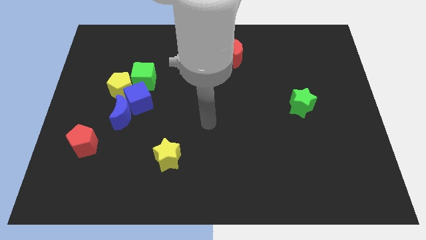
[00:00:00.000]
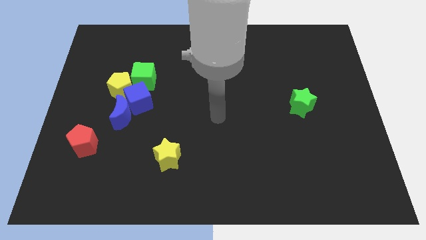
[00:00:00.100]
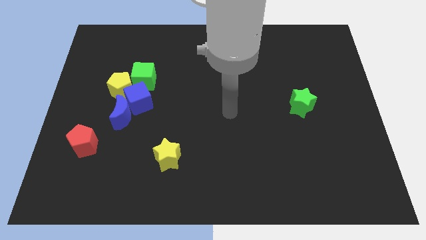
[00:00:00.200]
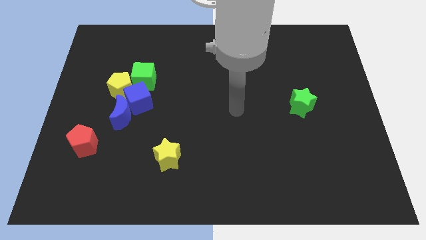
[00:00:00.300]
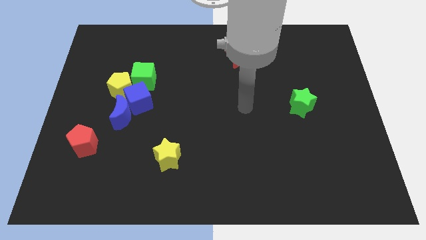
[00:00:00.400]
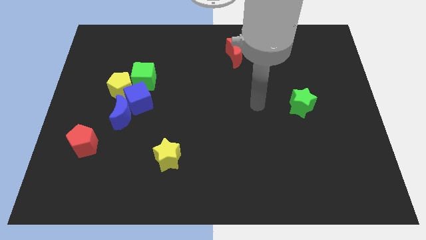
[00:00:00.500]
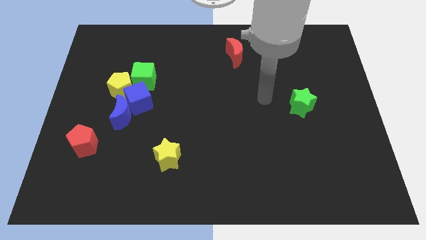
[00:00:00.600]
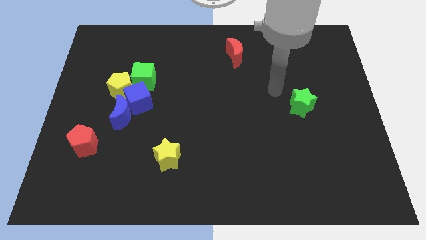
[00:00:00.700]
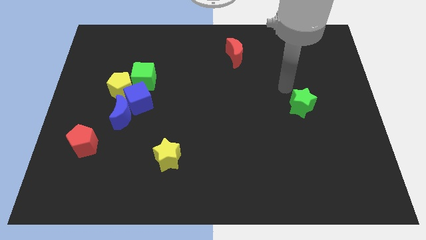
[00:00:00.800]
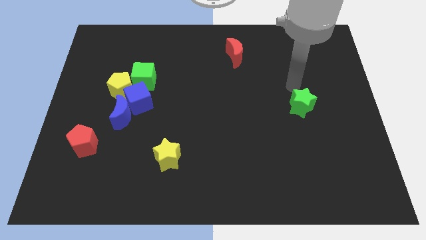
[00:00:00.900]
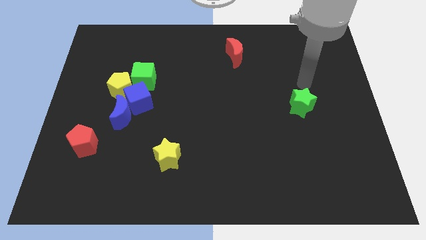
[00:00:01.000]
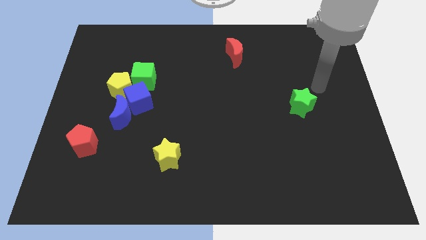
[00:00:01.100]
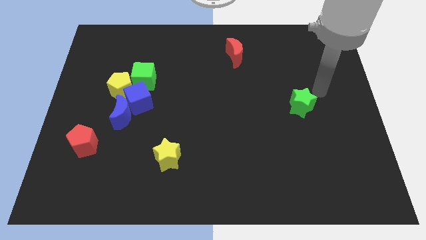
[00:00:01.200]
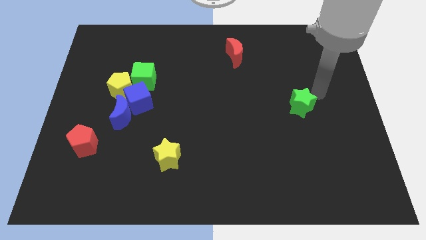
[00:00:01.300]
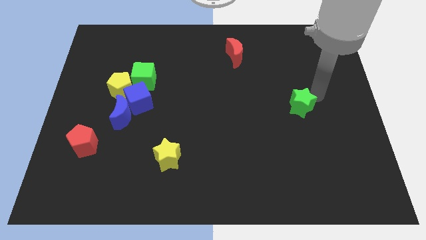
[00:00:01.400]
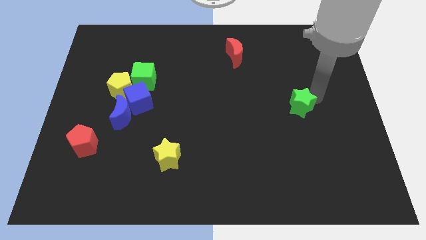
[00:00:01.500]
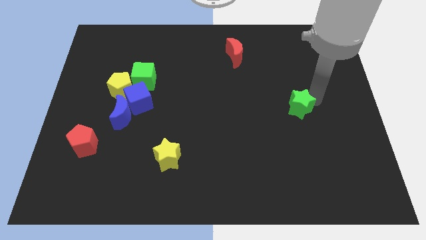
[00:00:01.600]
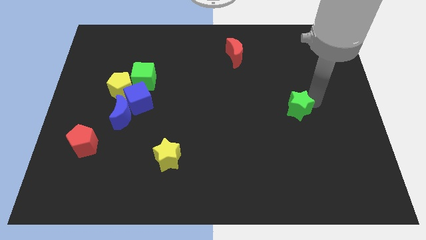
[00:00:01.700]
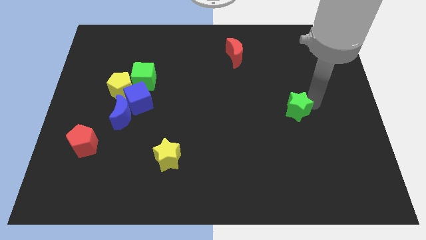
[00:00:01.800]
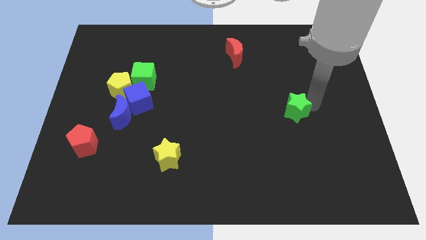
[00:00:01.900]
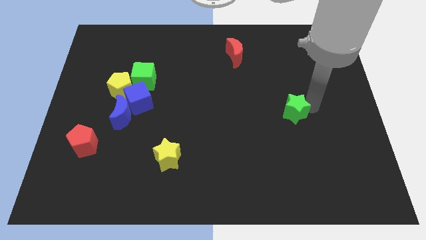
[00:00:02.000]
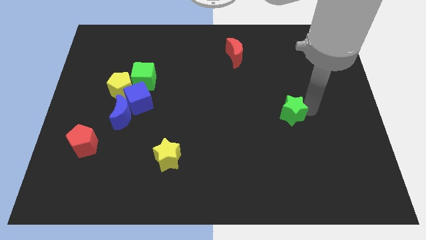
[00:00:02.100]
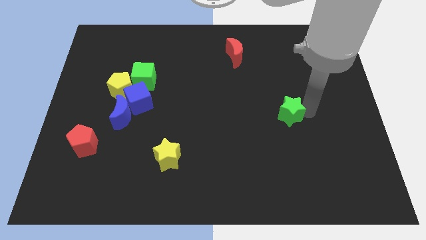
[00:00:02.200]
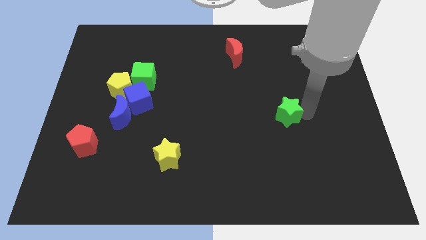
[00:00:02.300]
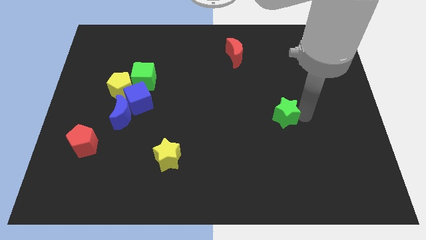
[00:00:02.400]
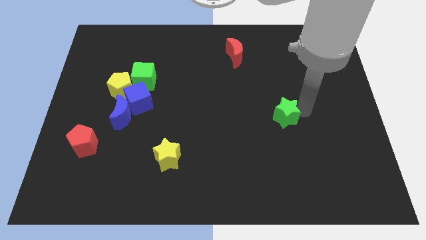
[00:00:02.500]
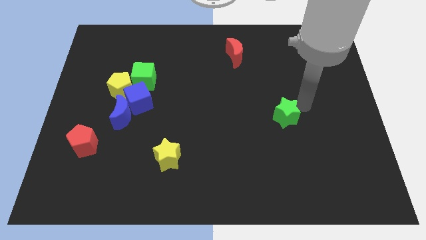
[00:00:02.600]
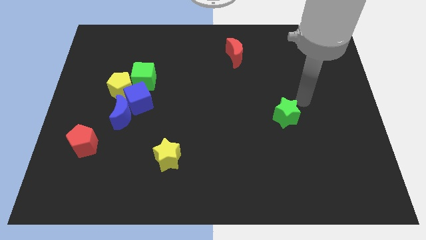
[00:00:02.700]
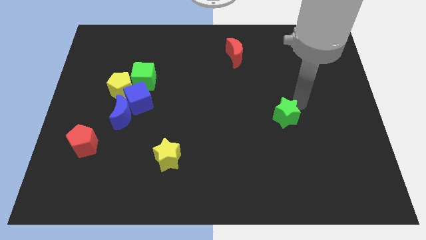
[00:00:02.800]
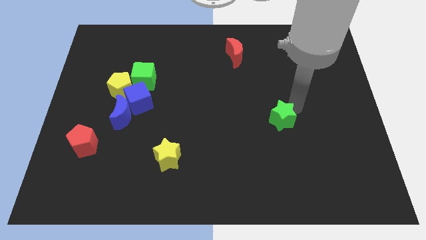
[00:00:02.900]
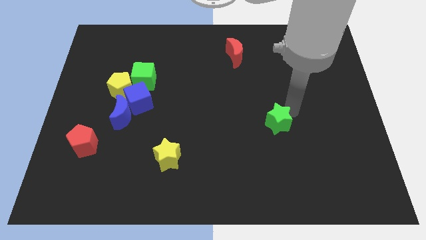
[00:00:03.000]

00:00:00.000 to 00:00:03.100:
slightly slide the green star diagonally downwards and to the left

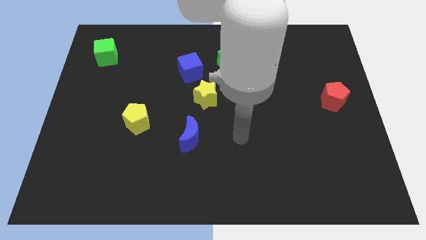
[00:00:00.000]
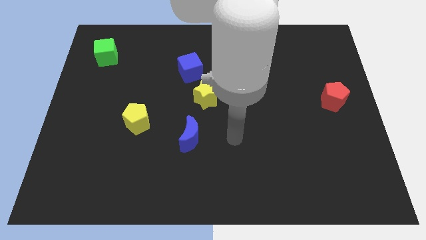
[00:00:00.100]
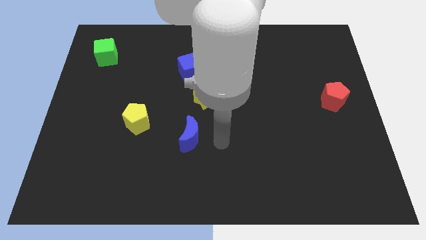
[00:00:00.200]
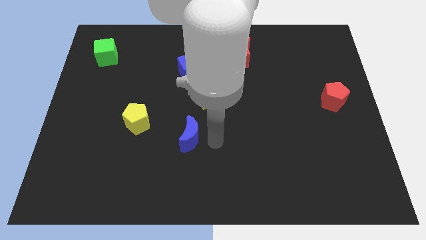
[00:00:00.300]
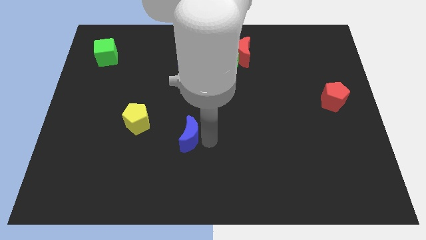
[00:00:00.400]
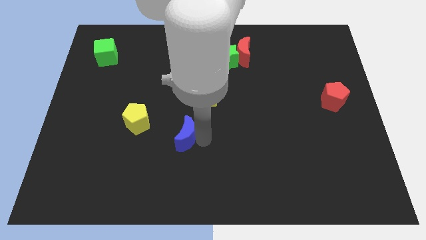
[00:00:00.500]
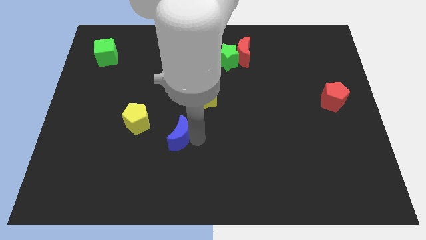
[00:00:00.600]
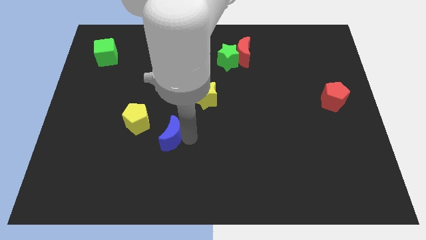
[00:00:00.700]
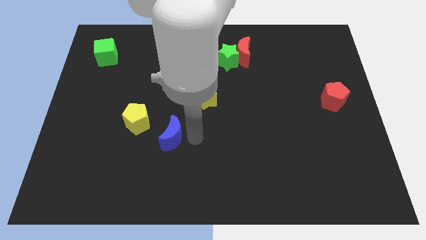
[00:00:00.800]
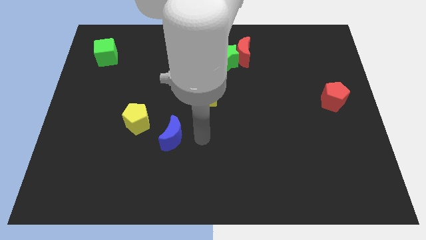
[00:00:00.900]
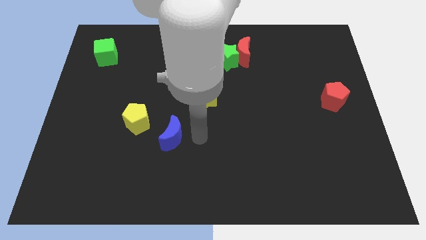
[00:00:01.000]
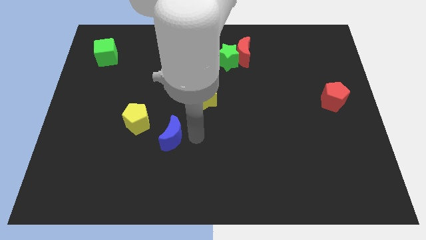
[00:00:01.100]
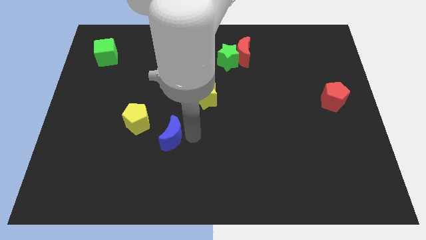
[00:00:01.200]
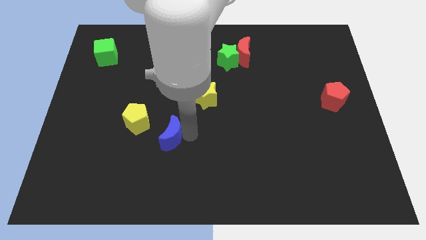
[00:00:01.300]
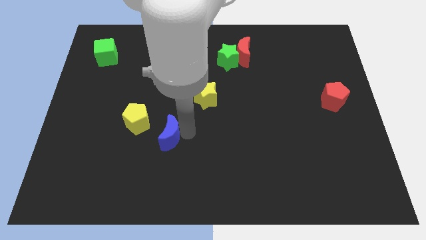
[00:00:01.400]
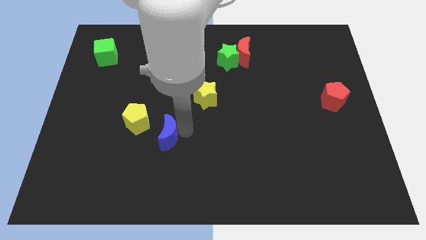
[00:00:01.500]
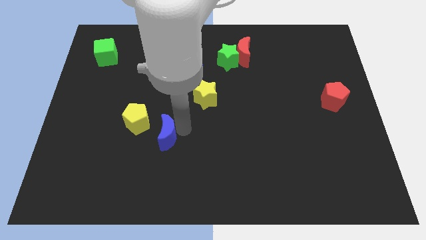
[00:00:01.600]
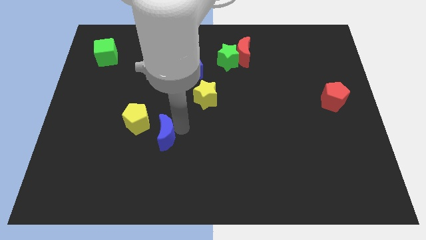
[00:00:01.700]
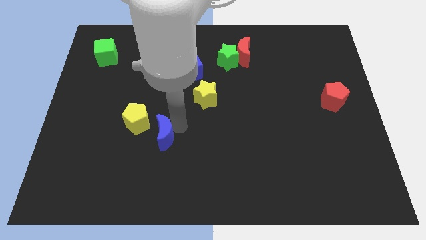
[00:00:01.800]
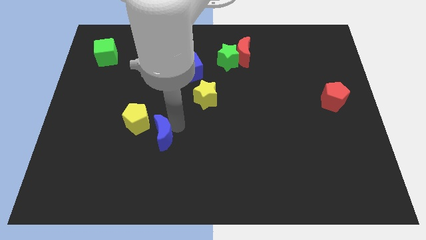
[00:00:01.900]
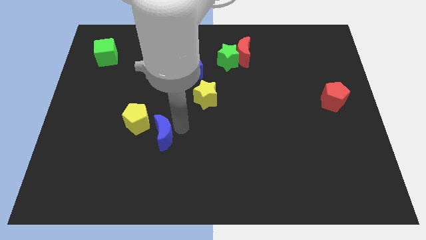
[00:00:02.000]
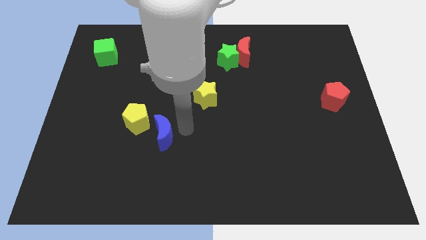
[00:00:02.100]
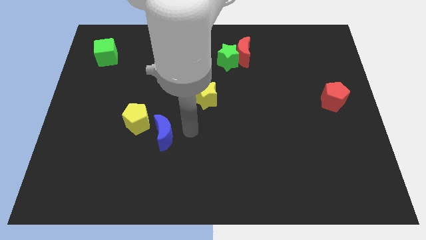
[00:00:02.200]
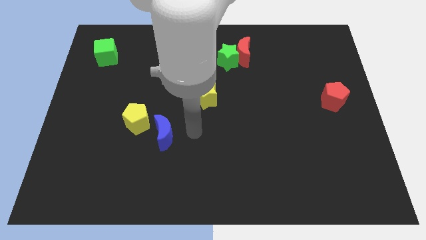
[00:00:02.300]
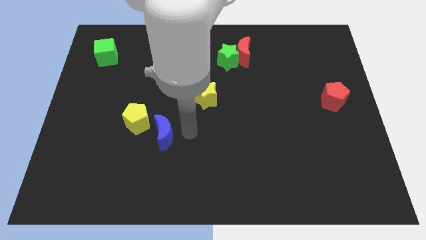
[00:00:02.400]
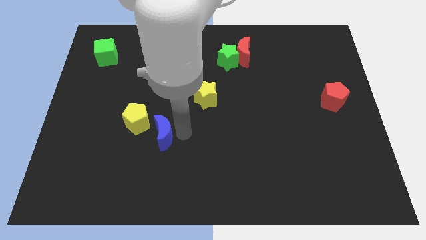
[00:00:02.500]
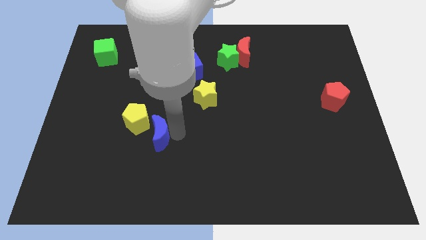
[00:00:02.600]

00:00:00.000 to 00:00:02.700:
push the blue moon slightly to the left

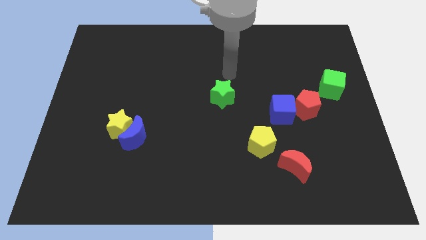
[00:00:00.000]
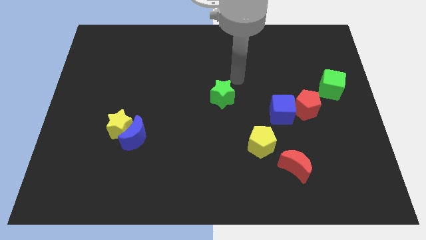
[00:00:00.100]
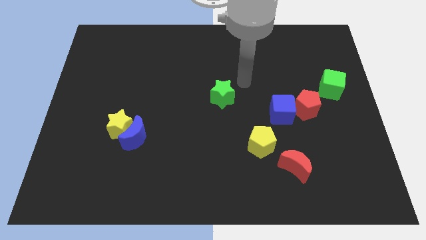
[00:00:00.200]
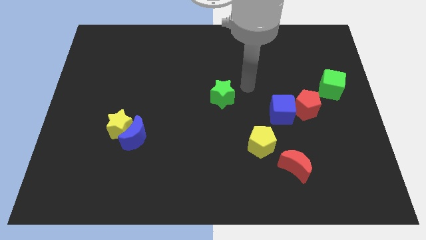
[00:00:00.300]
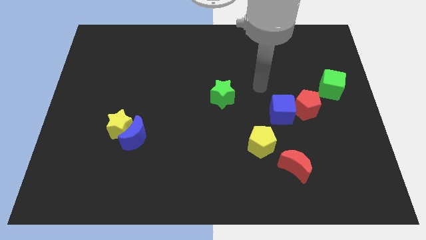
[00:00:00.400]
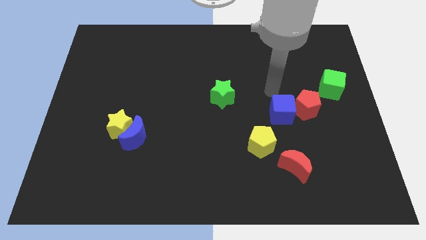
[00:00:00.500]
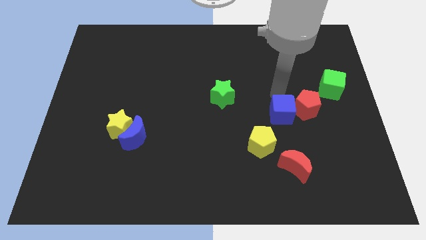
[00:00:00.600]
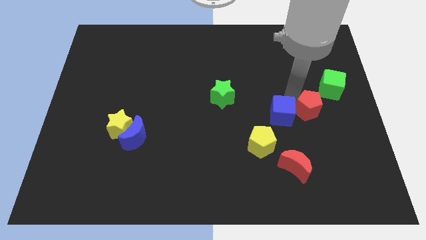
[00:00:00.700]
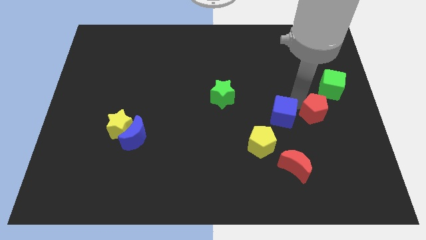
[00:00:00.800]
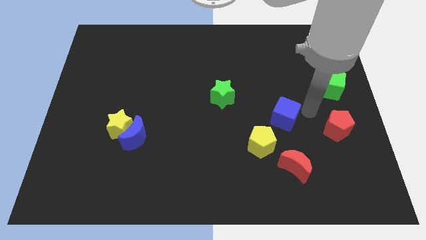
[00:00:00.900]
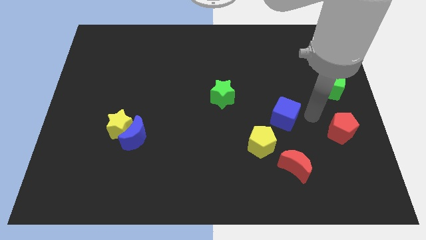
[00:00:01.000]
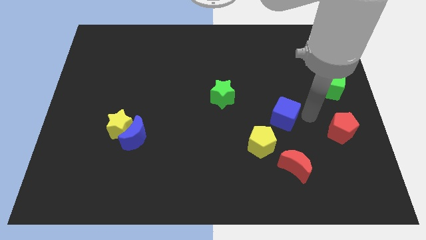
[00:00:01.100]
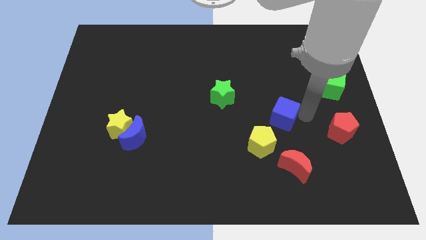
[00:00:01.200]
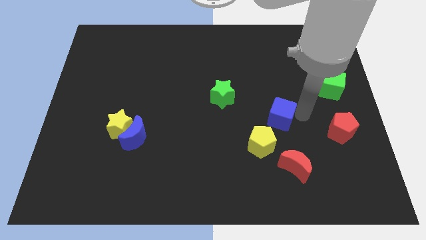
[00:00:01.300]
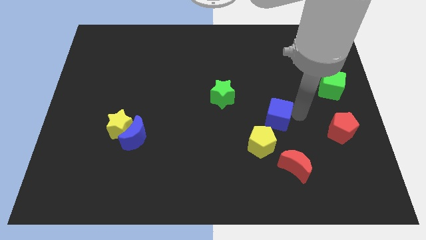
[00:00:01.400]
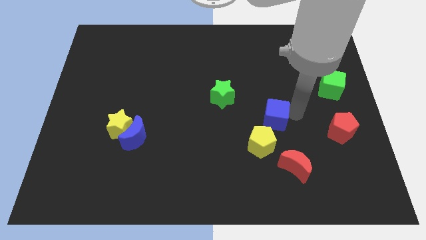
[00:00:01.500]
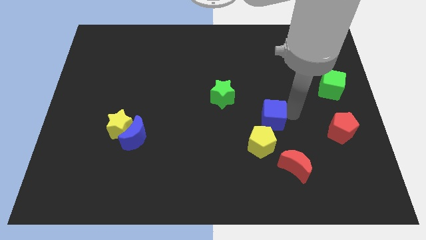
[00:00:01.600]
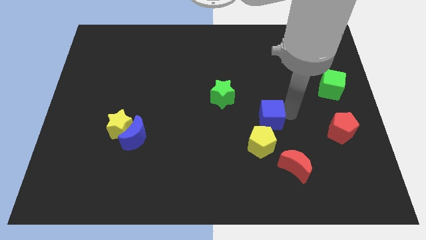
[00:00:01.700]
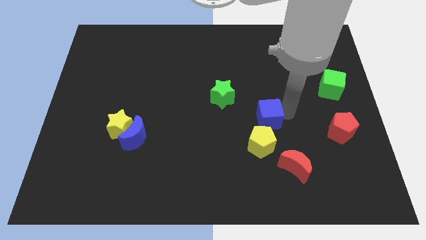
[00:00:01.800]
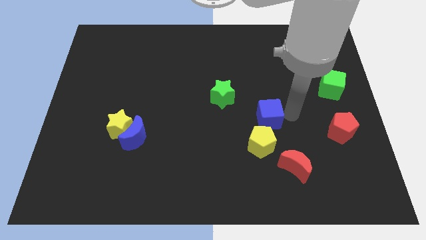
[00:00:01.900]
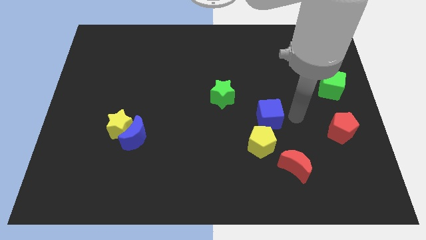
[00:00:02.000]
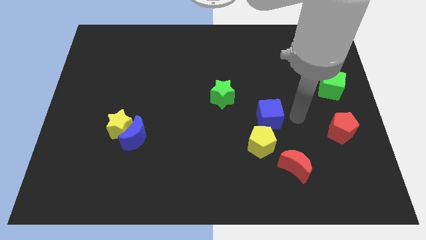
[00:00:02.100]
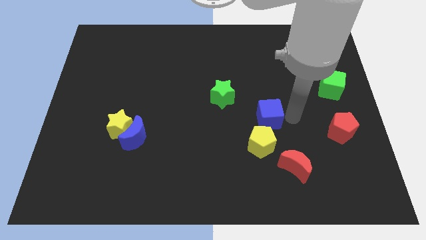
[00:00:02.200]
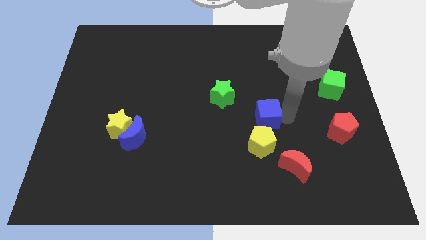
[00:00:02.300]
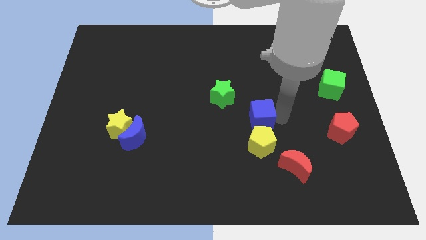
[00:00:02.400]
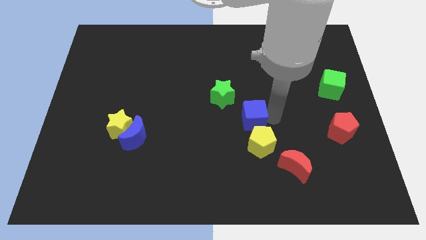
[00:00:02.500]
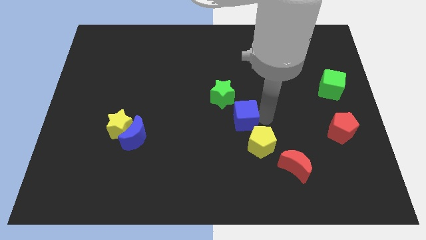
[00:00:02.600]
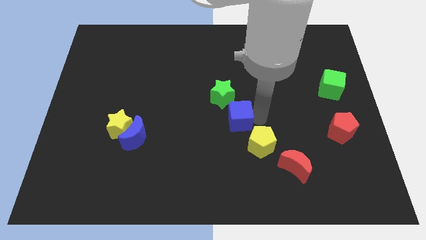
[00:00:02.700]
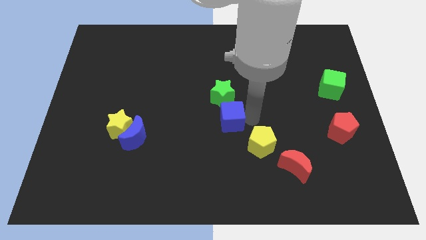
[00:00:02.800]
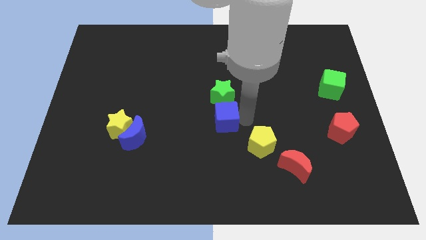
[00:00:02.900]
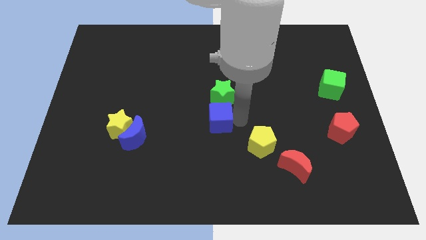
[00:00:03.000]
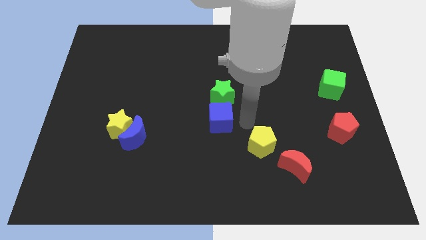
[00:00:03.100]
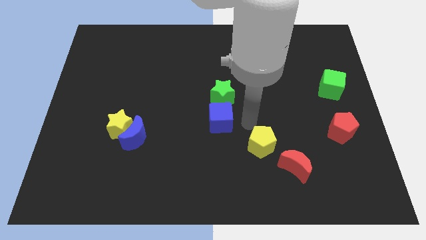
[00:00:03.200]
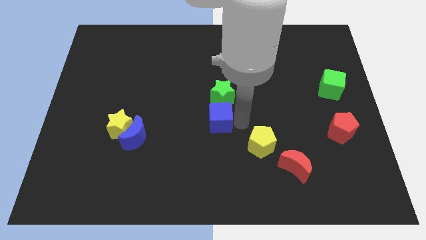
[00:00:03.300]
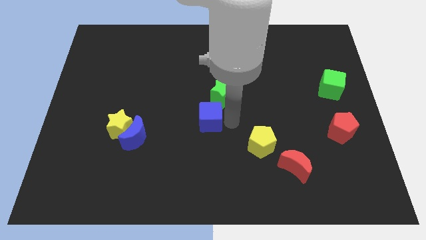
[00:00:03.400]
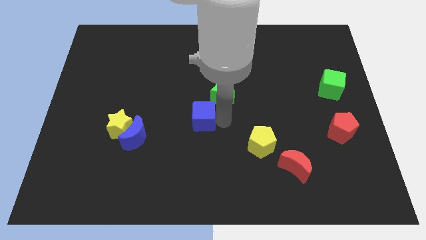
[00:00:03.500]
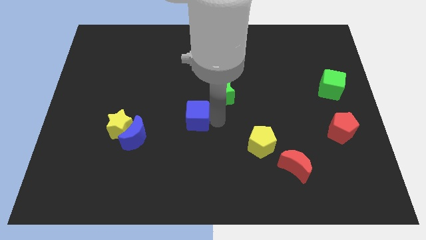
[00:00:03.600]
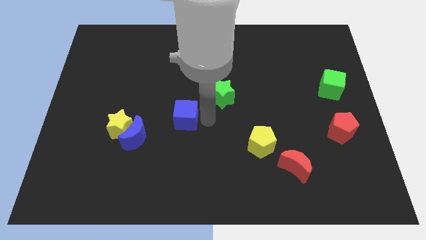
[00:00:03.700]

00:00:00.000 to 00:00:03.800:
slide the blue cube to the left
